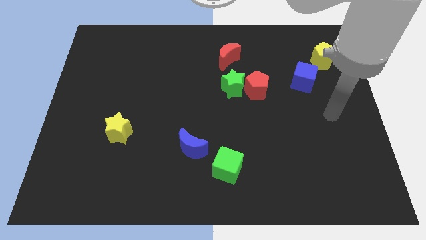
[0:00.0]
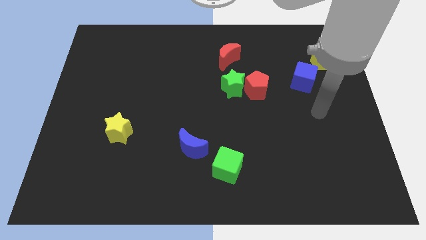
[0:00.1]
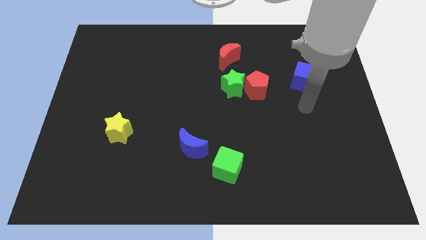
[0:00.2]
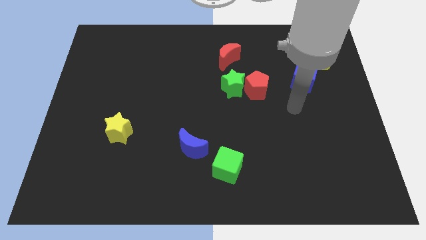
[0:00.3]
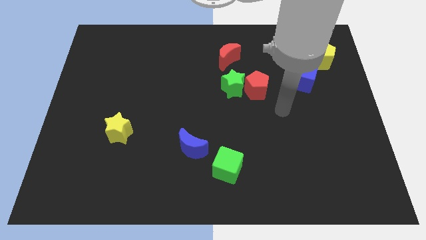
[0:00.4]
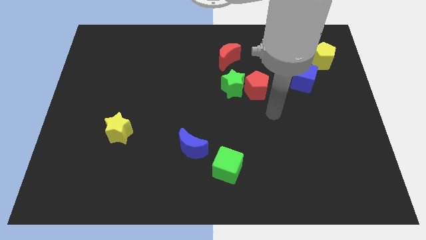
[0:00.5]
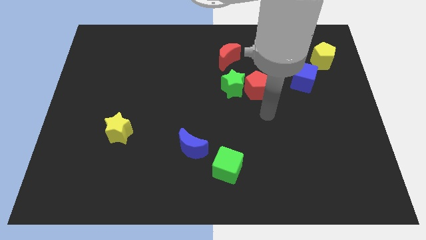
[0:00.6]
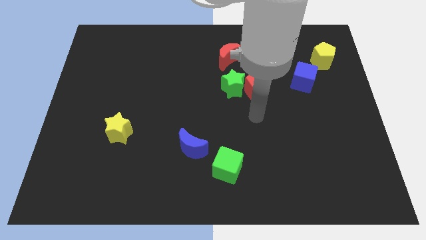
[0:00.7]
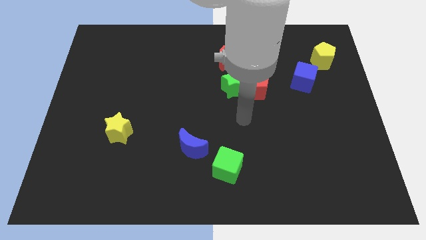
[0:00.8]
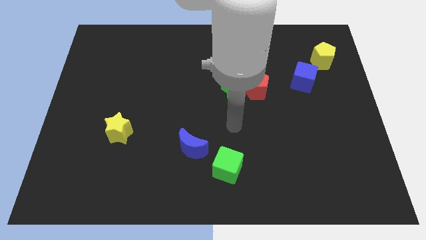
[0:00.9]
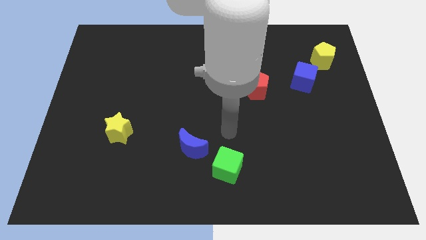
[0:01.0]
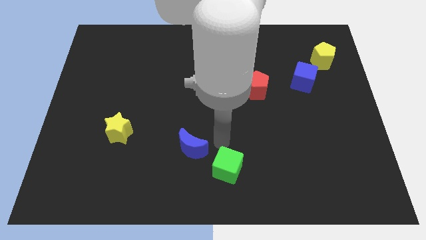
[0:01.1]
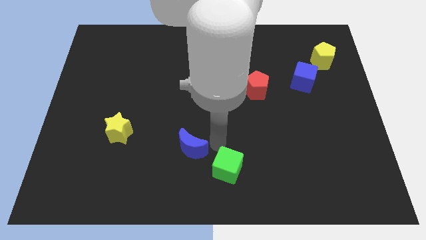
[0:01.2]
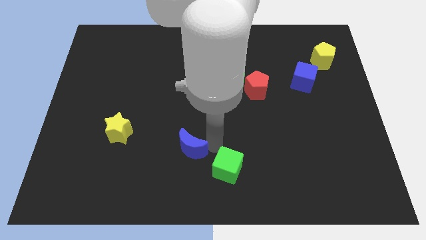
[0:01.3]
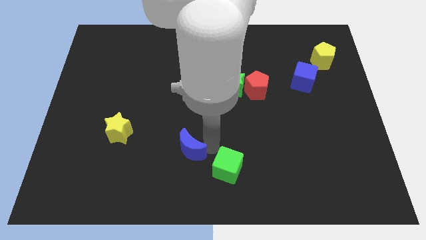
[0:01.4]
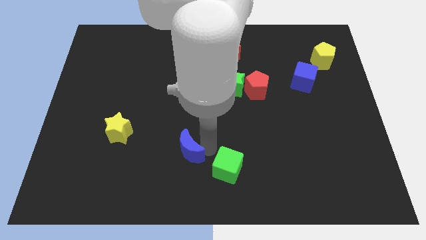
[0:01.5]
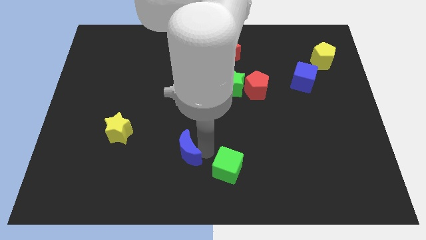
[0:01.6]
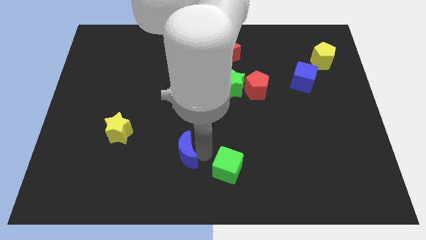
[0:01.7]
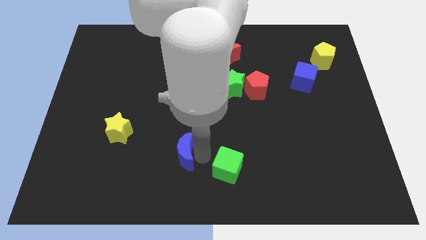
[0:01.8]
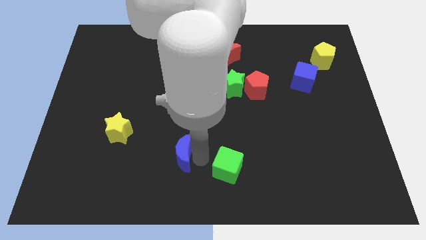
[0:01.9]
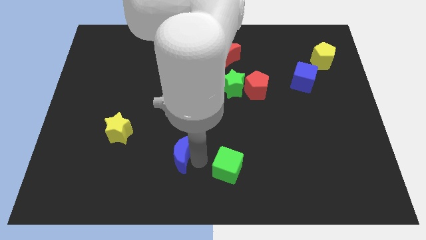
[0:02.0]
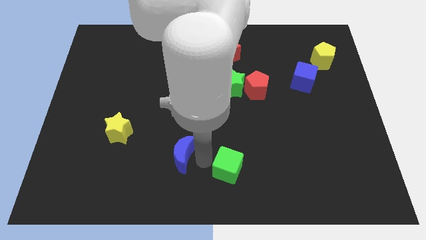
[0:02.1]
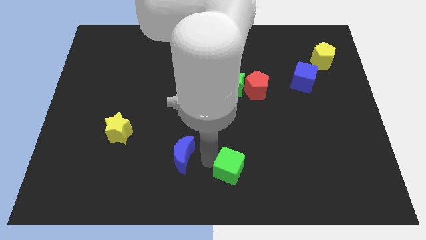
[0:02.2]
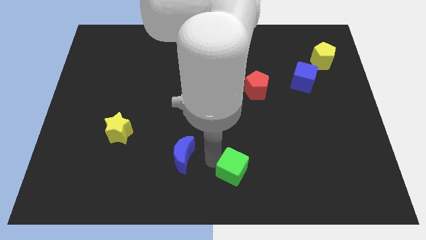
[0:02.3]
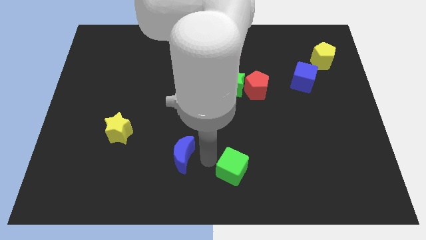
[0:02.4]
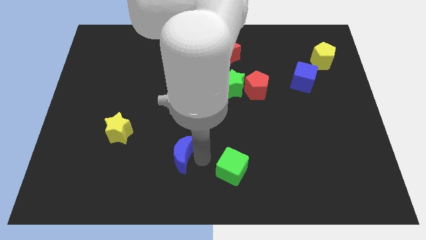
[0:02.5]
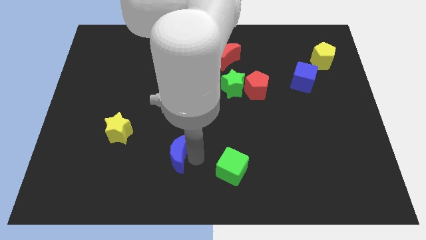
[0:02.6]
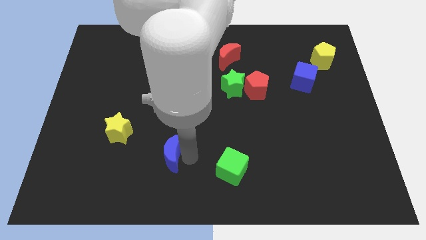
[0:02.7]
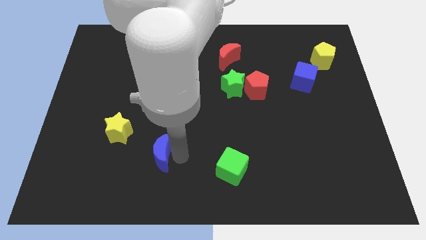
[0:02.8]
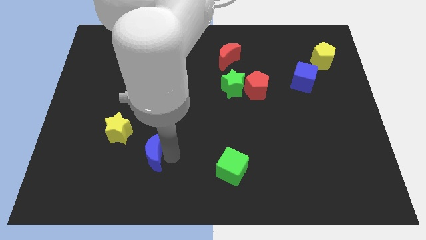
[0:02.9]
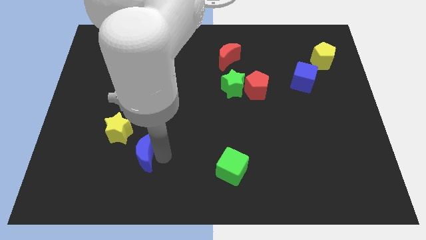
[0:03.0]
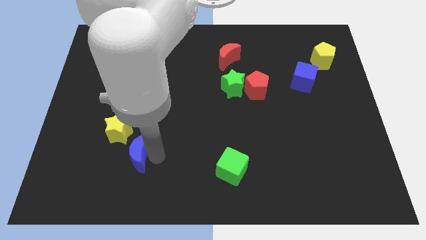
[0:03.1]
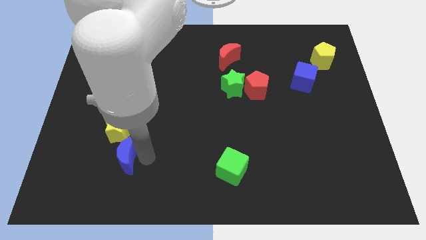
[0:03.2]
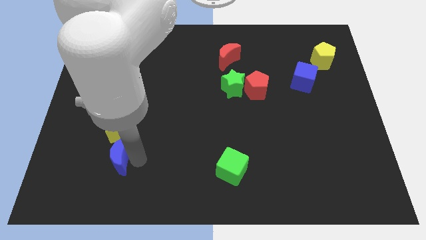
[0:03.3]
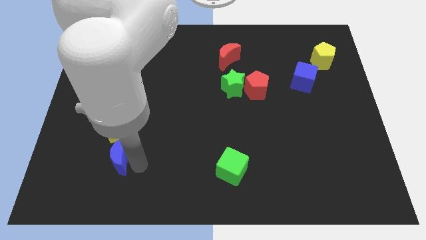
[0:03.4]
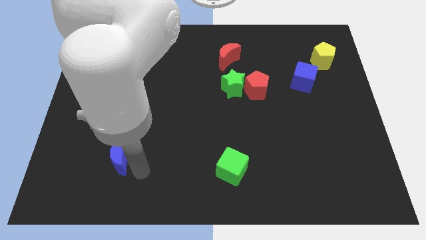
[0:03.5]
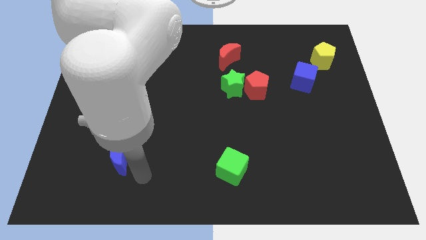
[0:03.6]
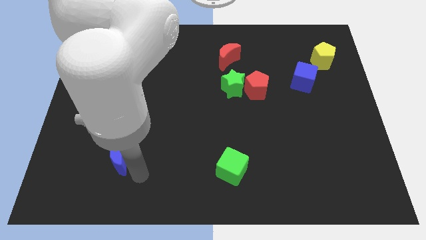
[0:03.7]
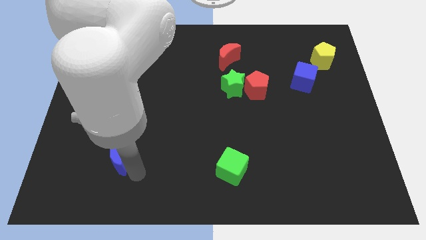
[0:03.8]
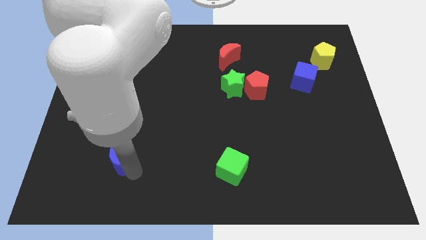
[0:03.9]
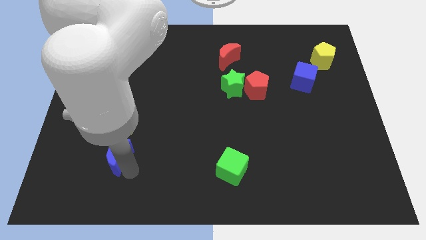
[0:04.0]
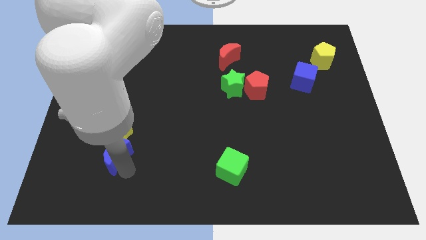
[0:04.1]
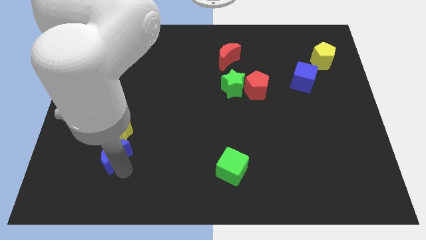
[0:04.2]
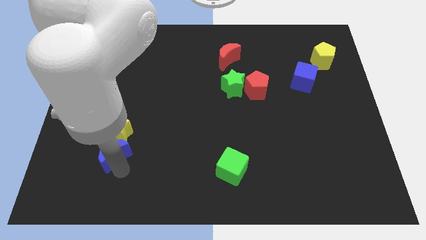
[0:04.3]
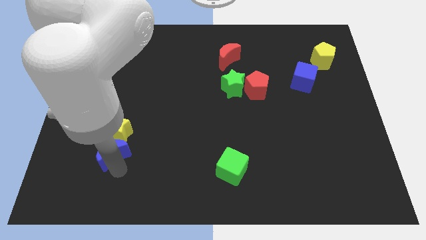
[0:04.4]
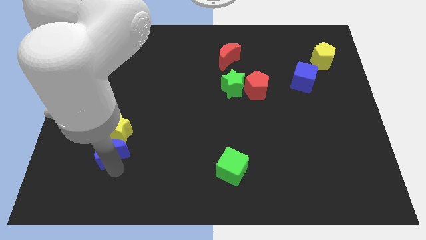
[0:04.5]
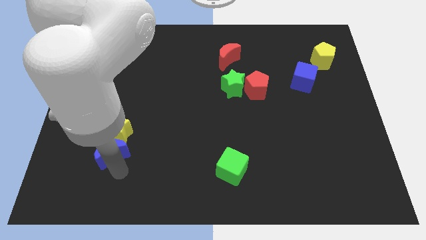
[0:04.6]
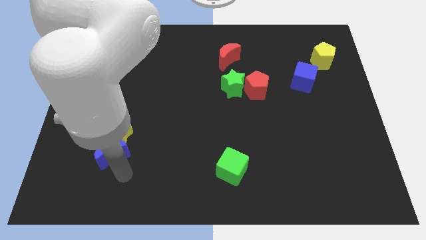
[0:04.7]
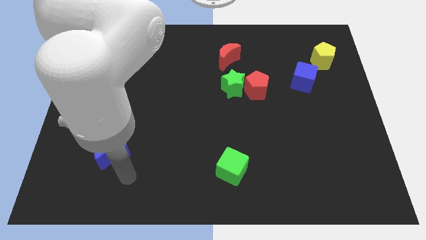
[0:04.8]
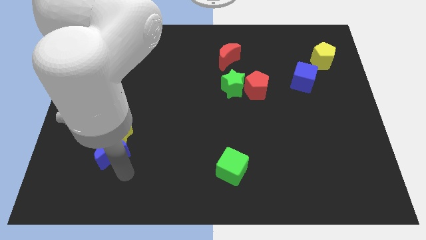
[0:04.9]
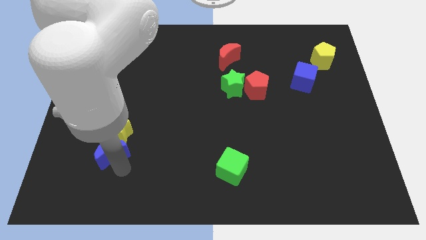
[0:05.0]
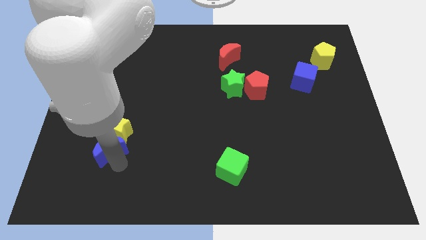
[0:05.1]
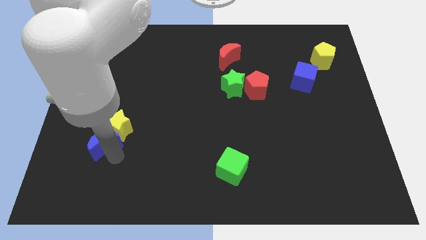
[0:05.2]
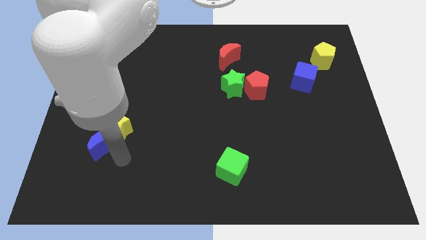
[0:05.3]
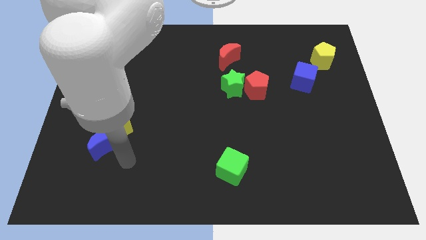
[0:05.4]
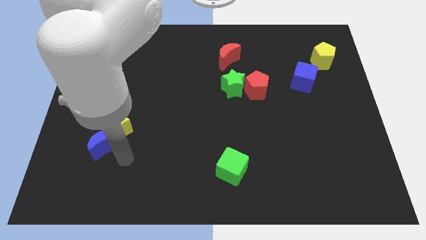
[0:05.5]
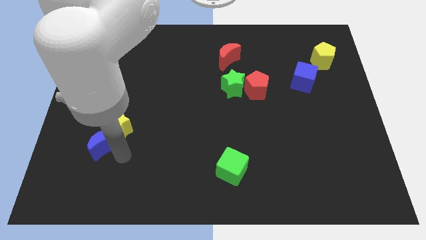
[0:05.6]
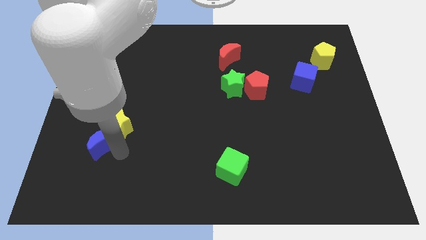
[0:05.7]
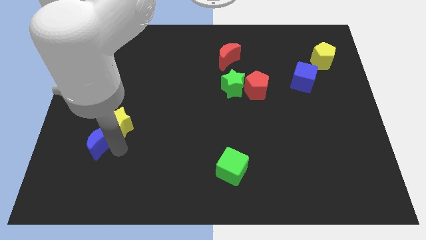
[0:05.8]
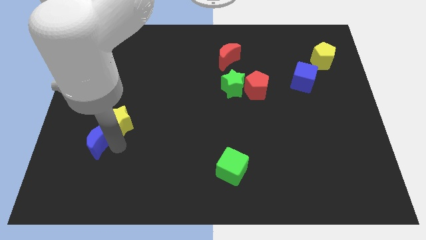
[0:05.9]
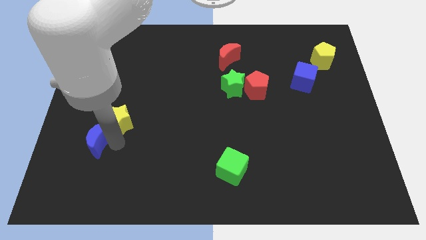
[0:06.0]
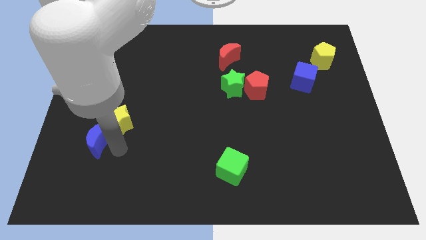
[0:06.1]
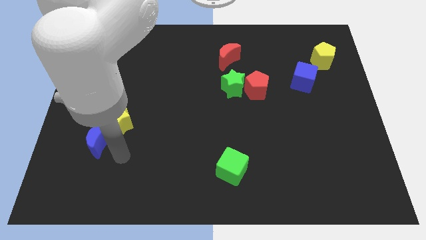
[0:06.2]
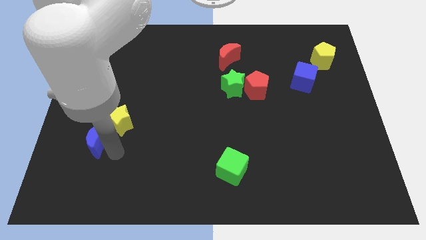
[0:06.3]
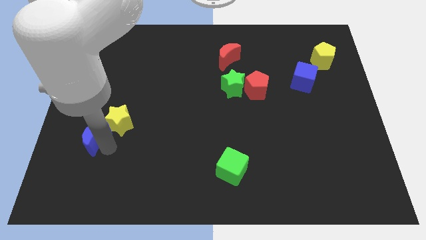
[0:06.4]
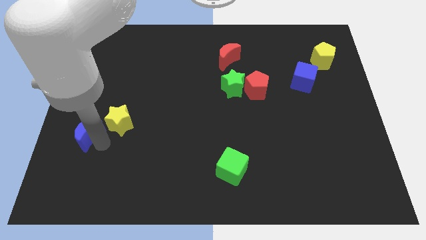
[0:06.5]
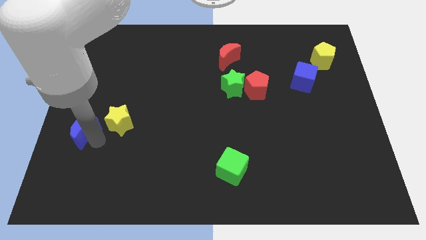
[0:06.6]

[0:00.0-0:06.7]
slide the blue moon to the left side of the board
